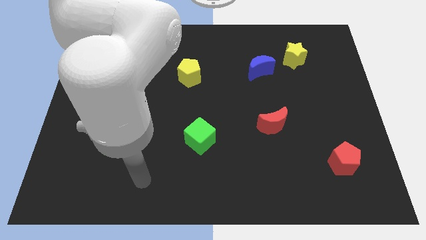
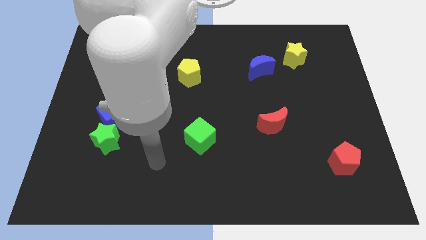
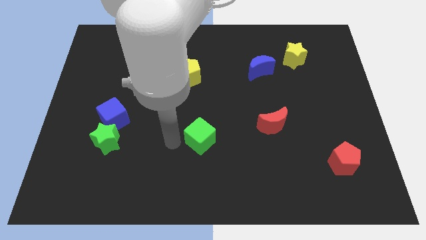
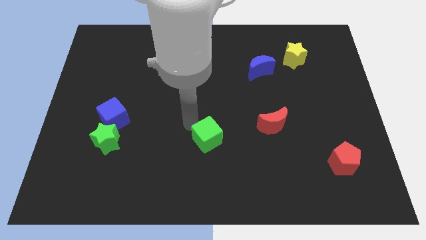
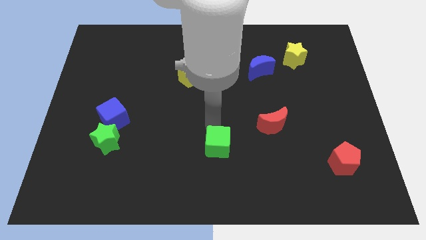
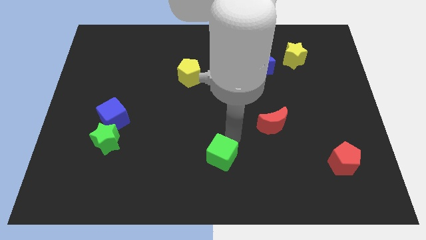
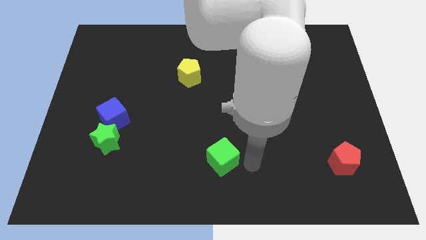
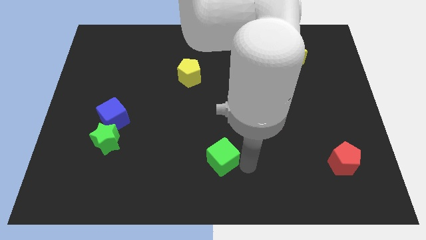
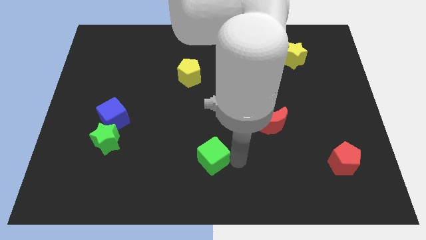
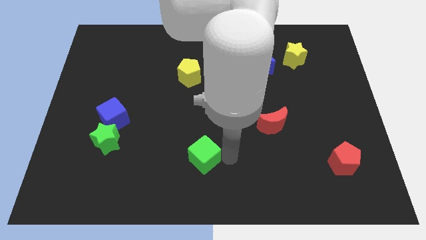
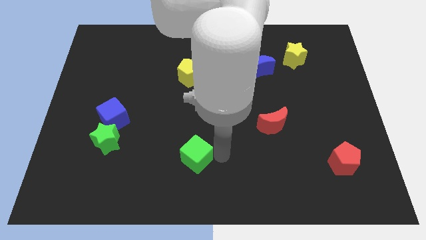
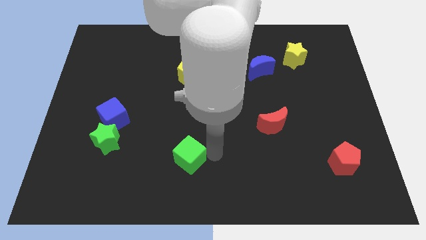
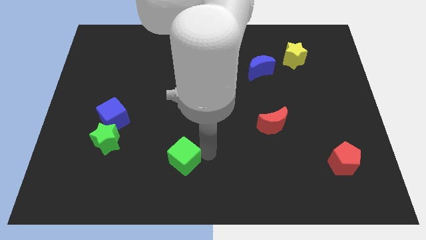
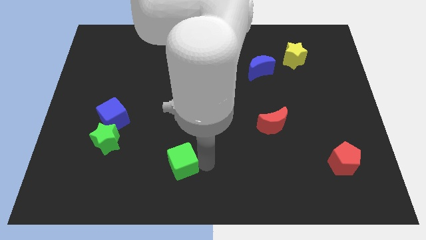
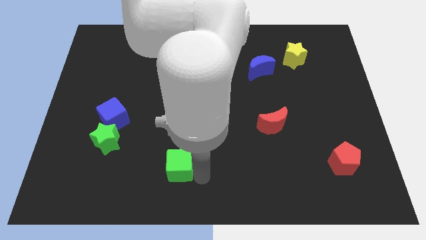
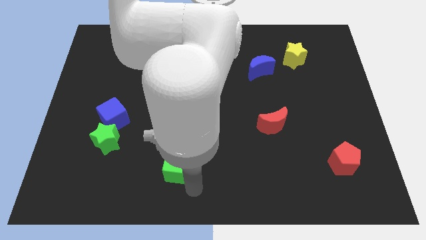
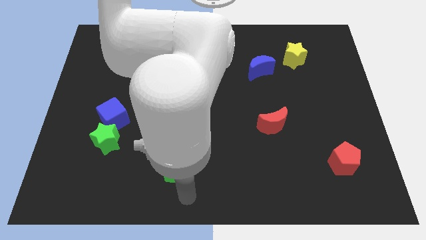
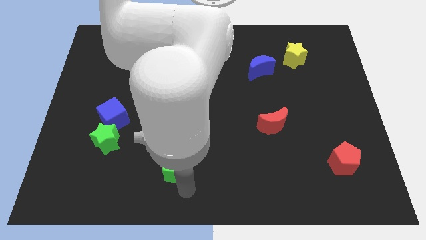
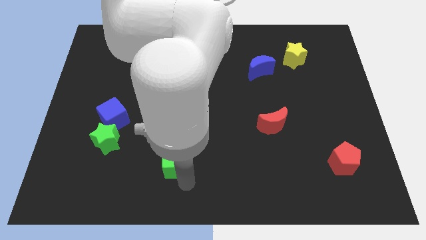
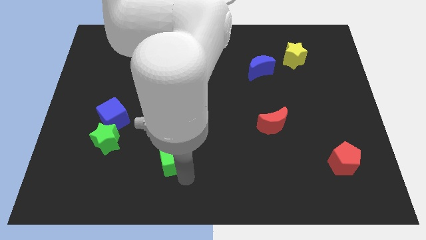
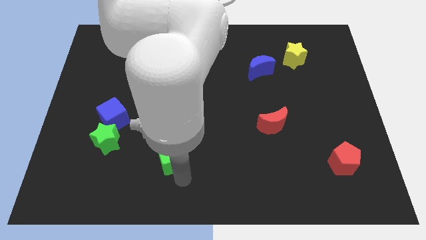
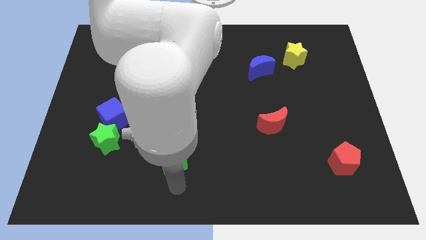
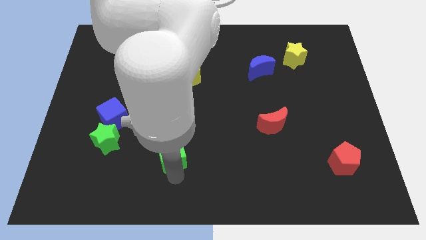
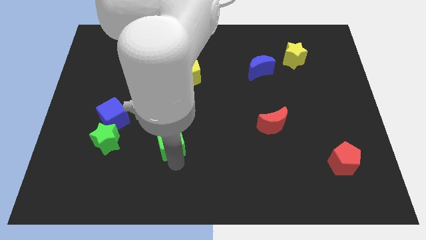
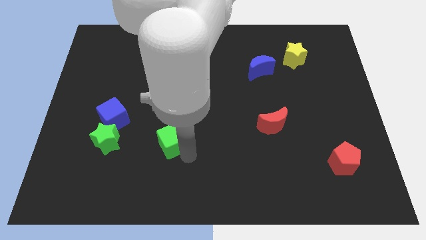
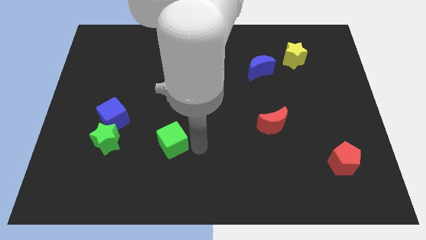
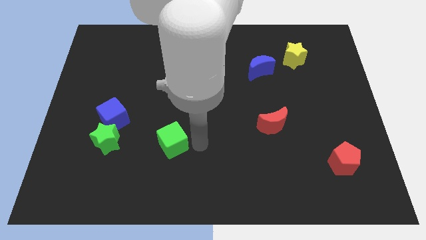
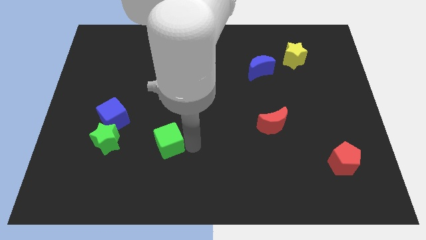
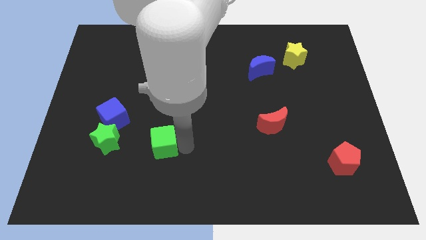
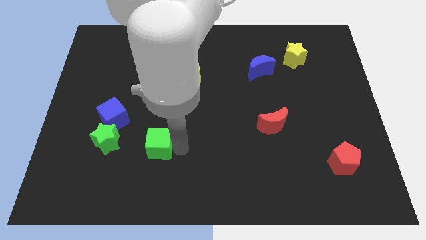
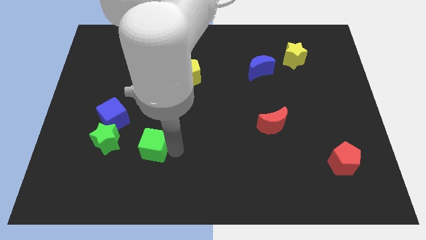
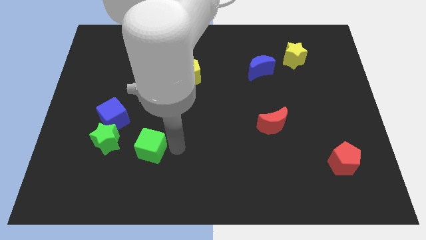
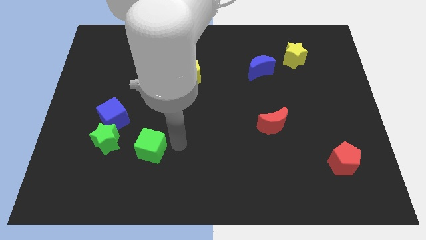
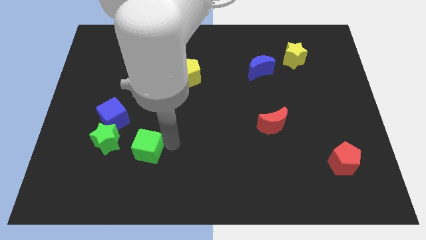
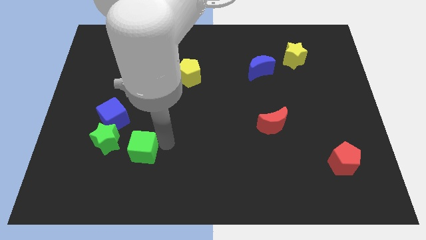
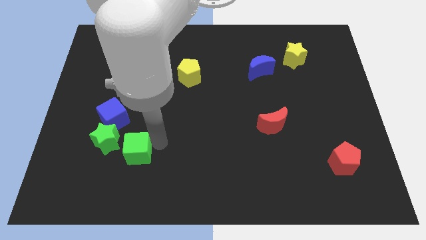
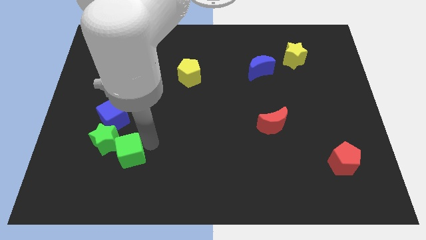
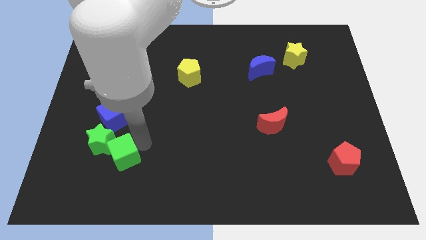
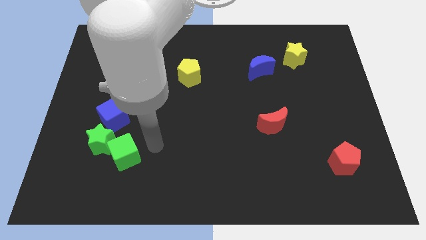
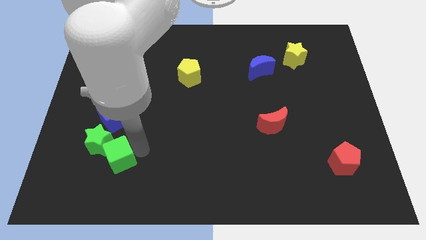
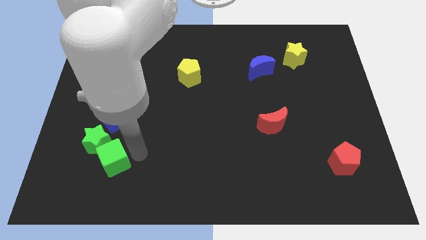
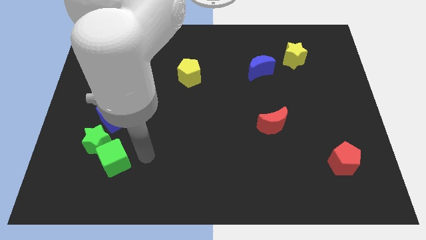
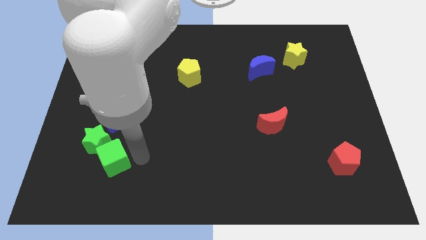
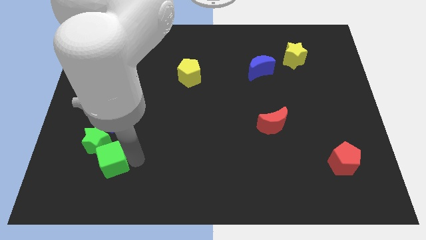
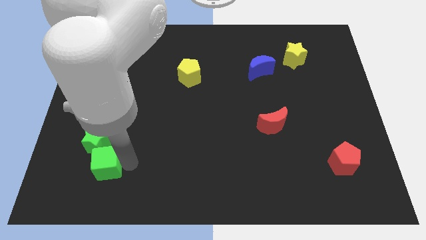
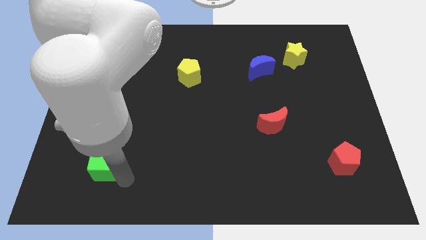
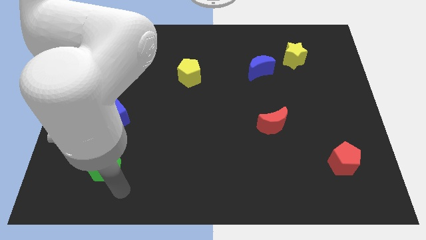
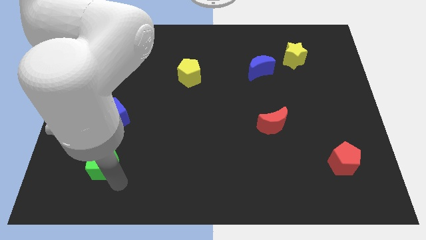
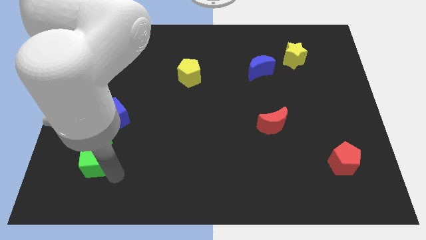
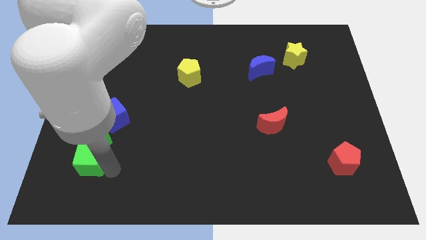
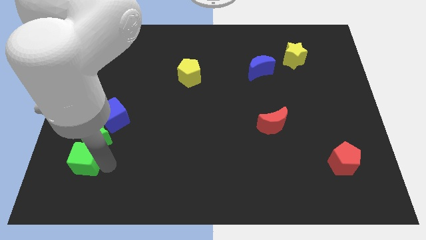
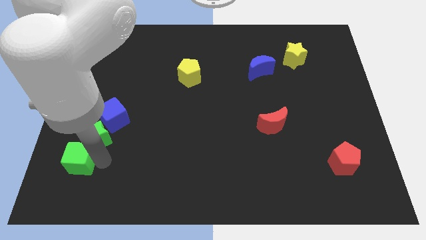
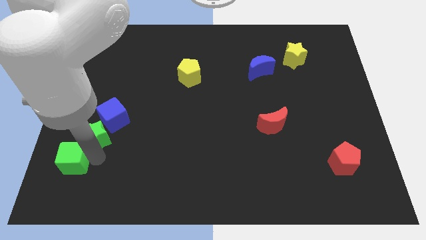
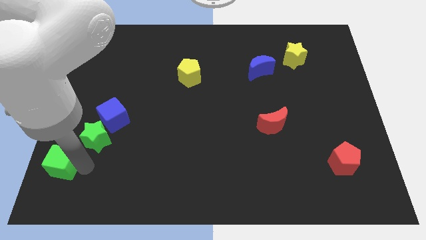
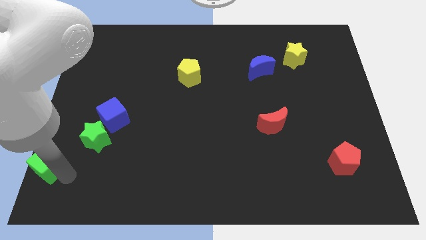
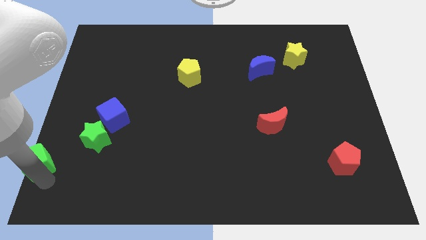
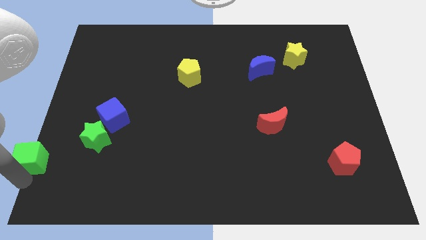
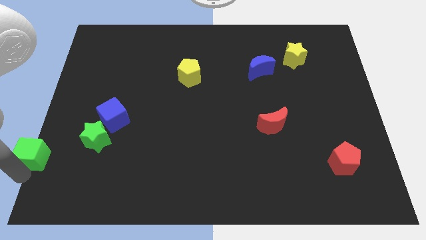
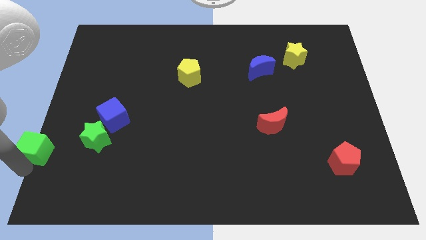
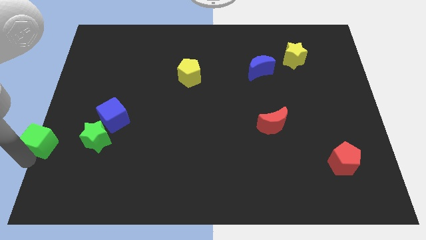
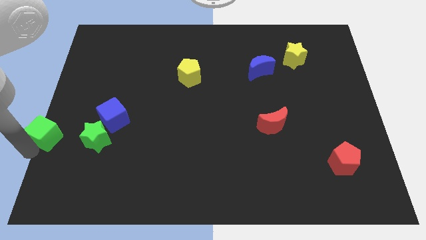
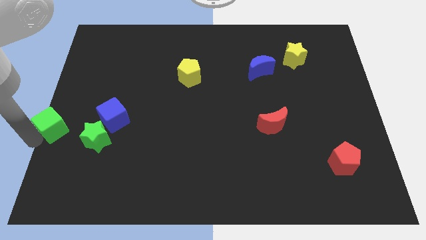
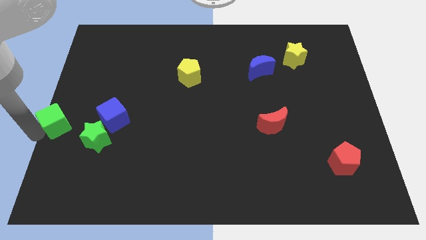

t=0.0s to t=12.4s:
slide the green cube to the top left side of the green star
